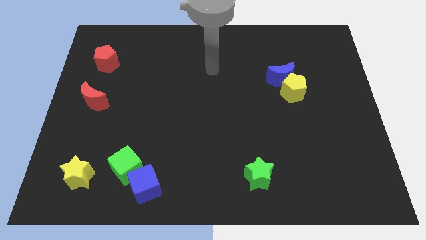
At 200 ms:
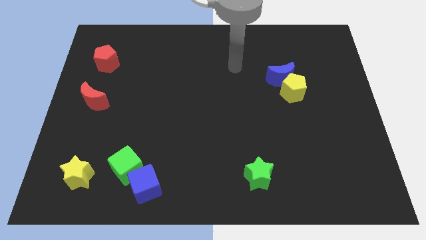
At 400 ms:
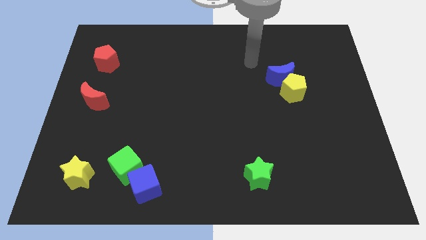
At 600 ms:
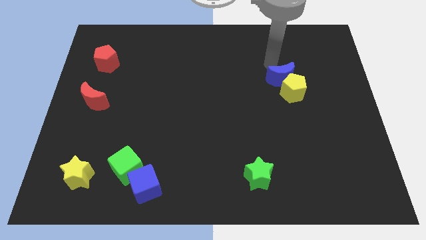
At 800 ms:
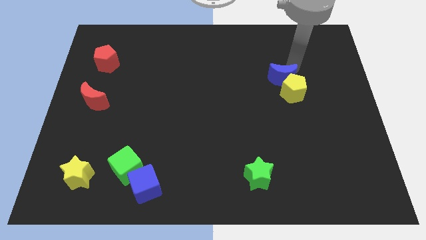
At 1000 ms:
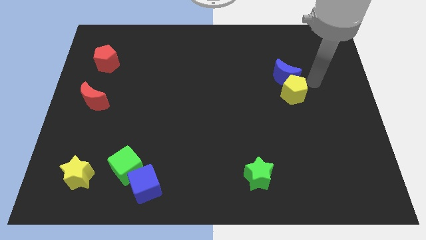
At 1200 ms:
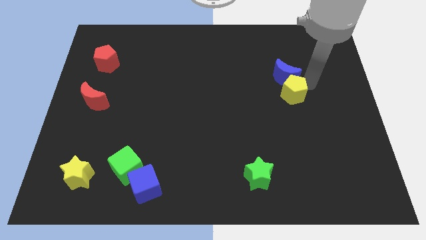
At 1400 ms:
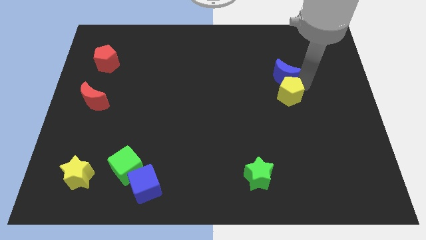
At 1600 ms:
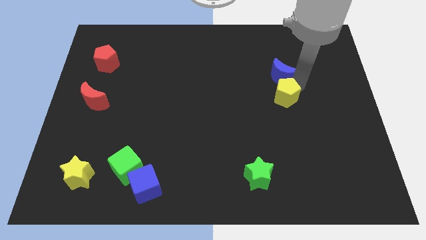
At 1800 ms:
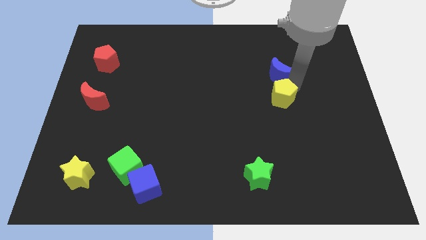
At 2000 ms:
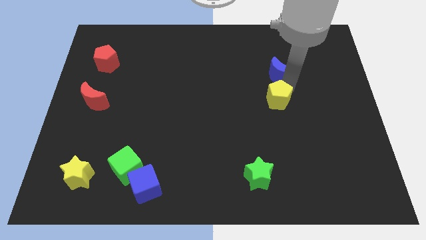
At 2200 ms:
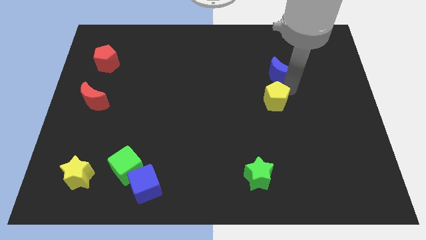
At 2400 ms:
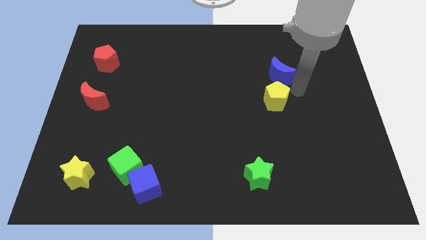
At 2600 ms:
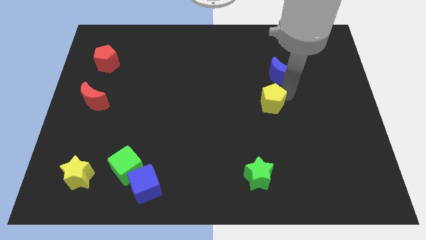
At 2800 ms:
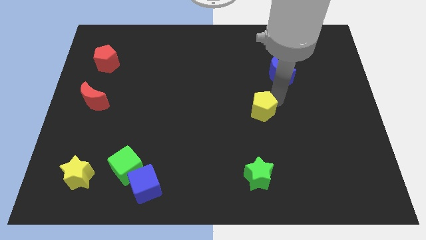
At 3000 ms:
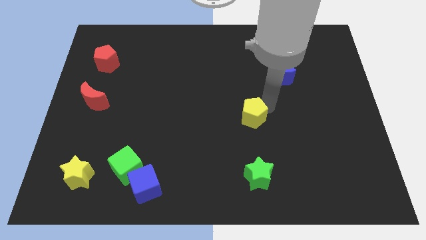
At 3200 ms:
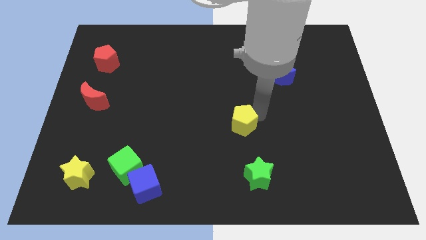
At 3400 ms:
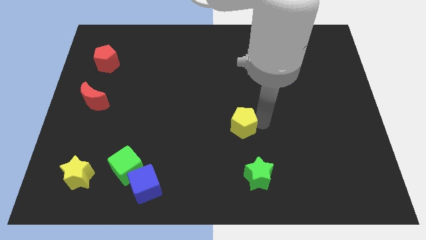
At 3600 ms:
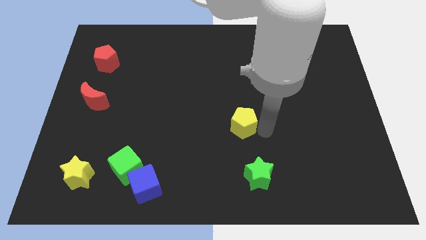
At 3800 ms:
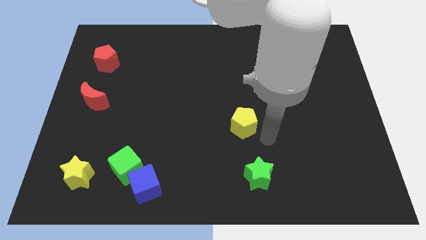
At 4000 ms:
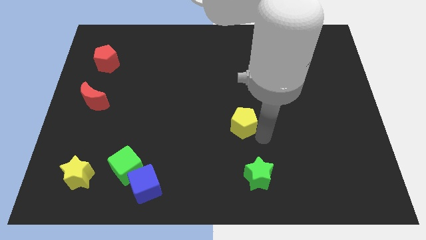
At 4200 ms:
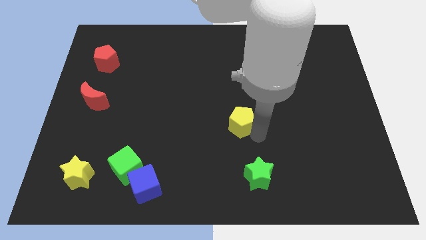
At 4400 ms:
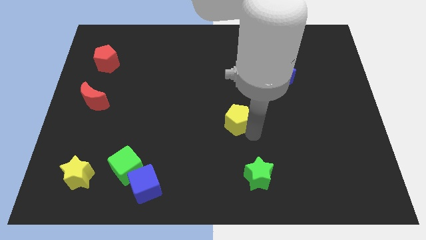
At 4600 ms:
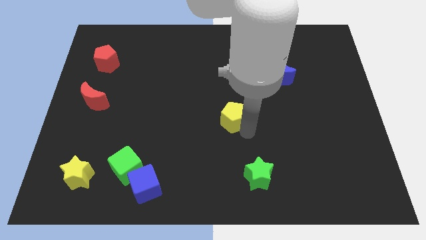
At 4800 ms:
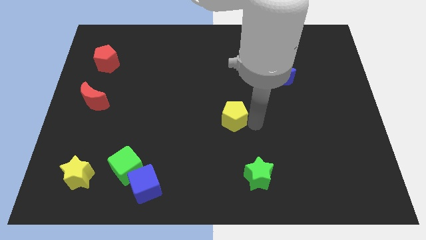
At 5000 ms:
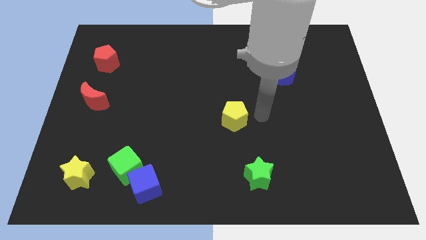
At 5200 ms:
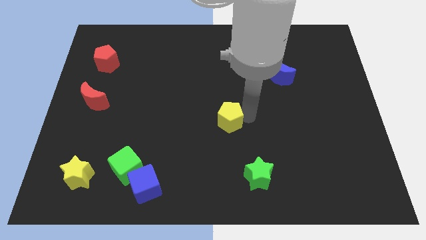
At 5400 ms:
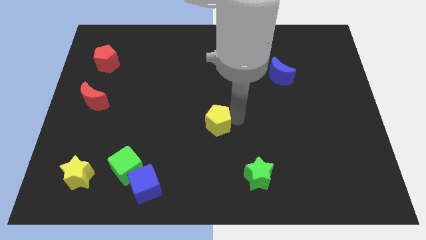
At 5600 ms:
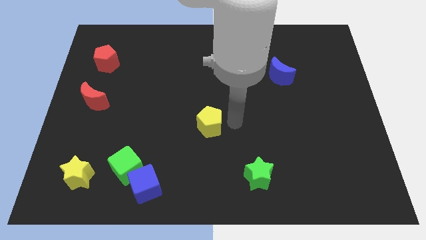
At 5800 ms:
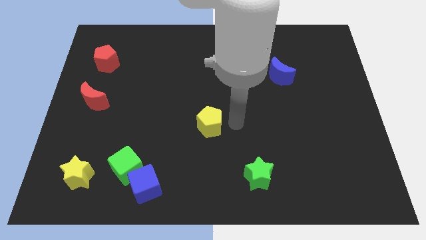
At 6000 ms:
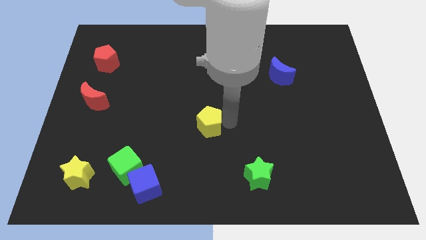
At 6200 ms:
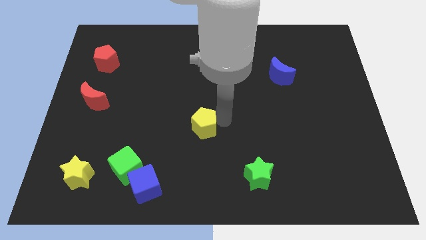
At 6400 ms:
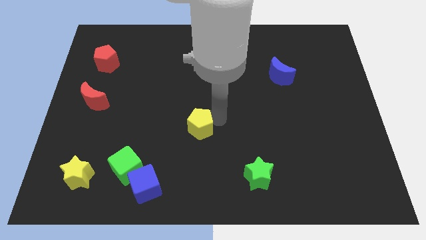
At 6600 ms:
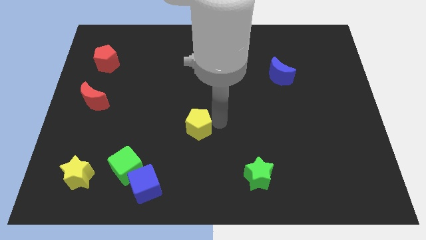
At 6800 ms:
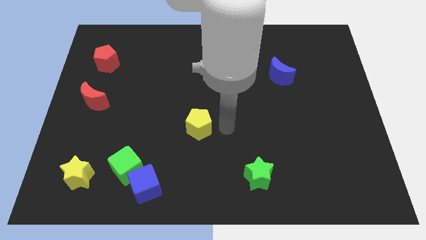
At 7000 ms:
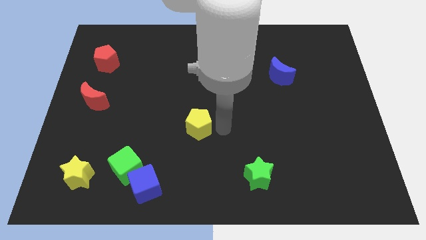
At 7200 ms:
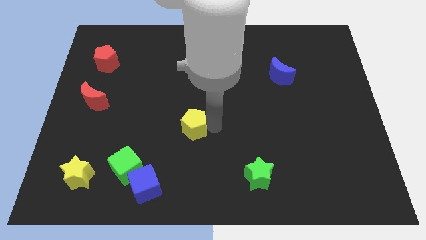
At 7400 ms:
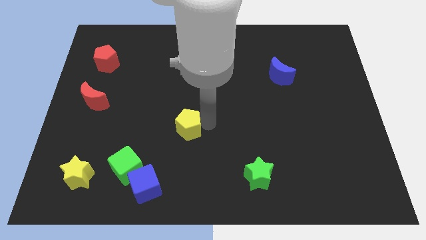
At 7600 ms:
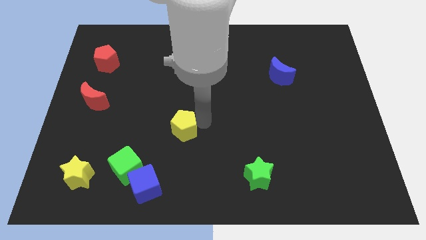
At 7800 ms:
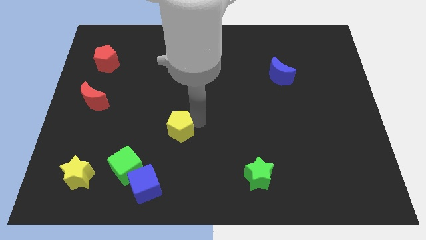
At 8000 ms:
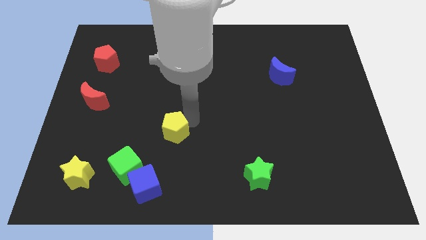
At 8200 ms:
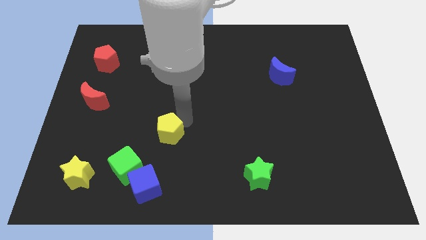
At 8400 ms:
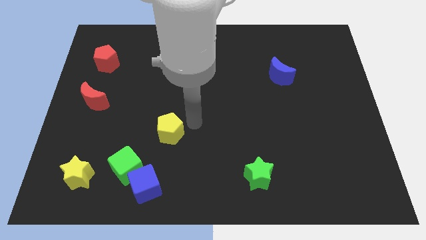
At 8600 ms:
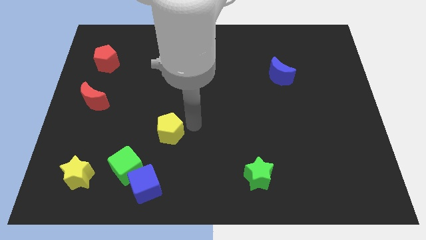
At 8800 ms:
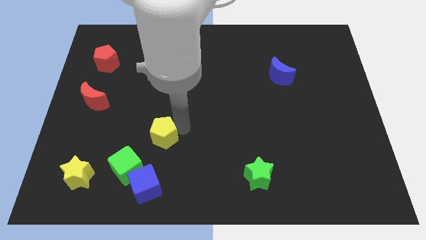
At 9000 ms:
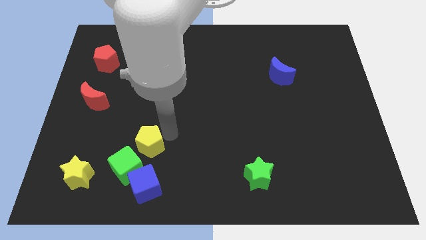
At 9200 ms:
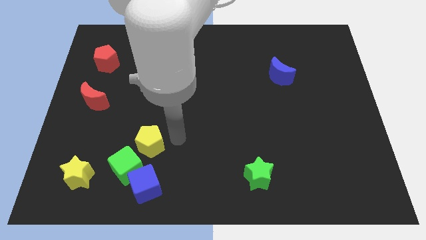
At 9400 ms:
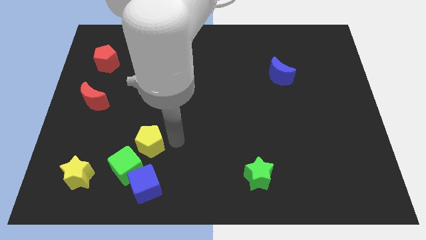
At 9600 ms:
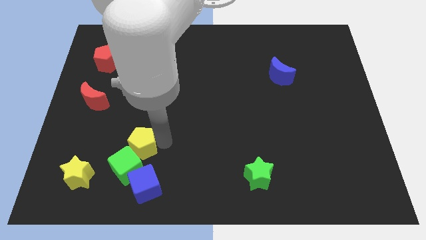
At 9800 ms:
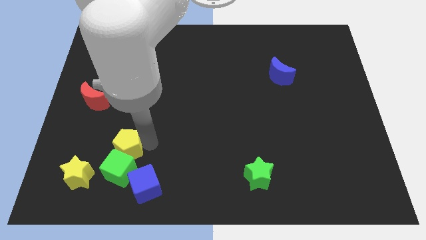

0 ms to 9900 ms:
move the yellow pentagon to the top right side of the yellow star

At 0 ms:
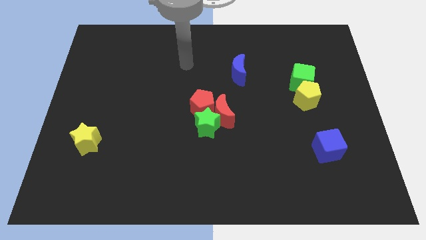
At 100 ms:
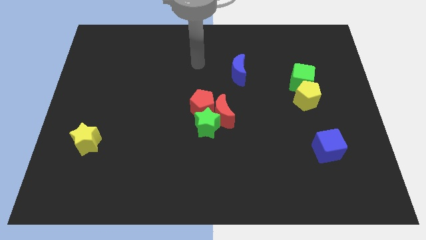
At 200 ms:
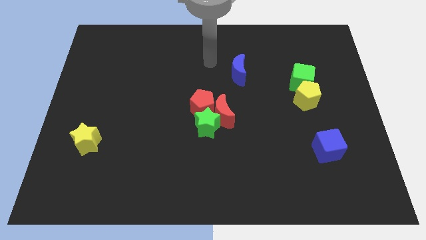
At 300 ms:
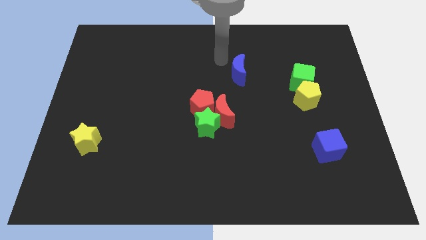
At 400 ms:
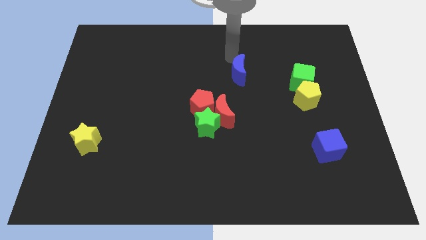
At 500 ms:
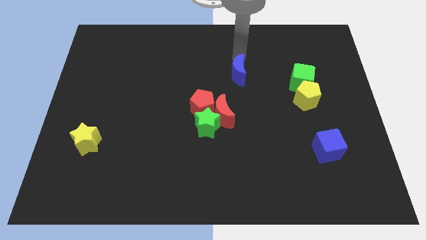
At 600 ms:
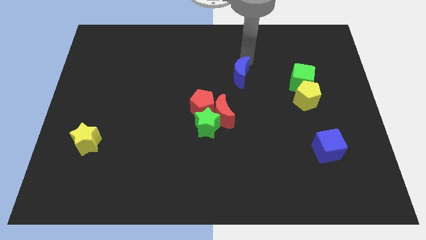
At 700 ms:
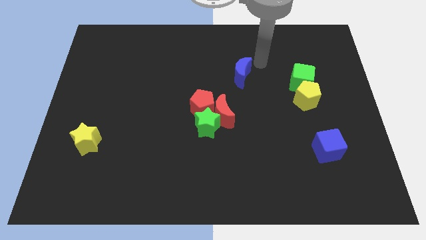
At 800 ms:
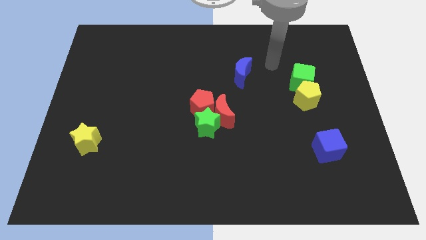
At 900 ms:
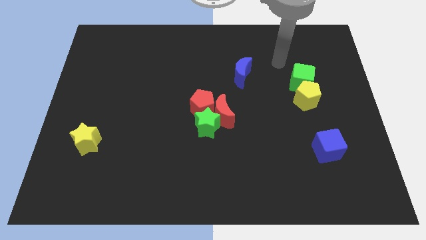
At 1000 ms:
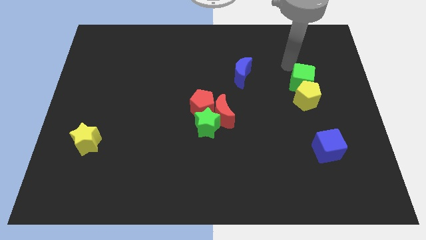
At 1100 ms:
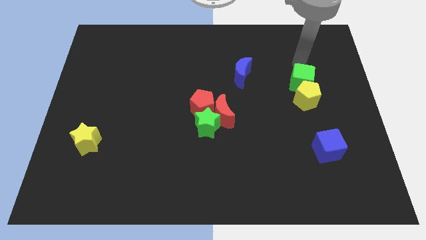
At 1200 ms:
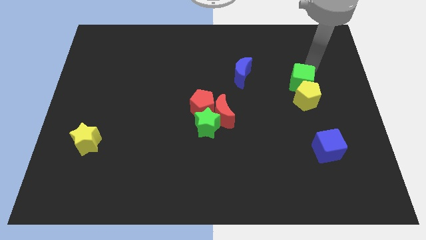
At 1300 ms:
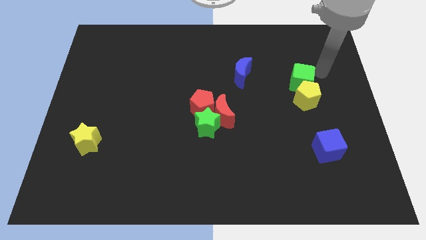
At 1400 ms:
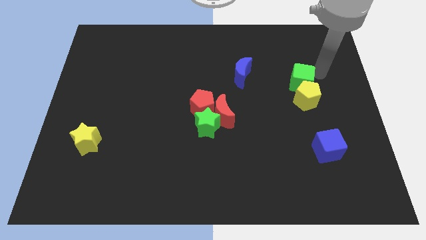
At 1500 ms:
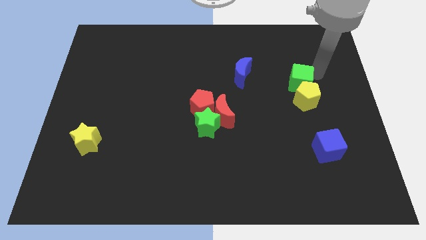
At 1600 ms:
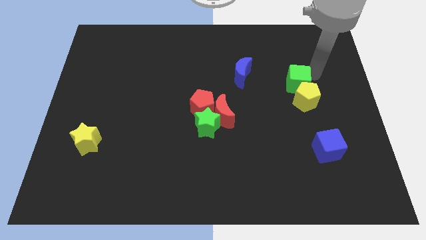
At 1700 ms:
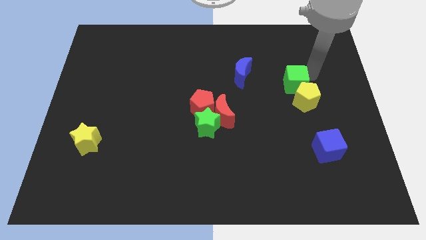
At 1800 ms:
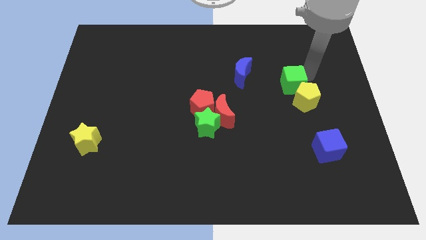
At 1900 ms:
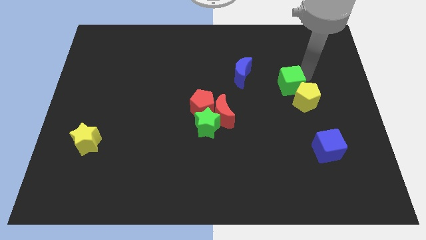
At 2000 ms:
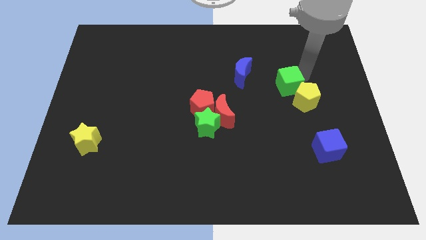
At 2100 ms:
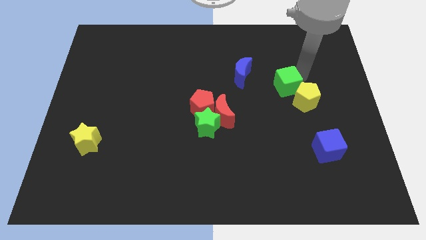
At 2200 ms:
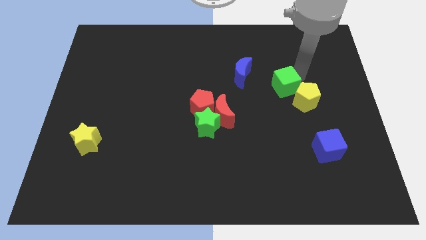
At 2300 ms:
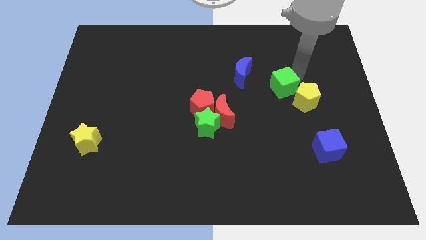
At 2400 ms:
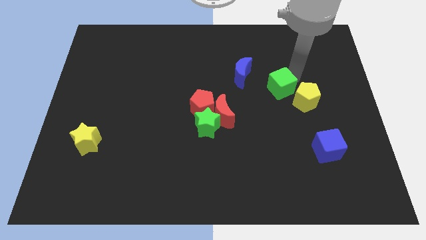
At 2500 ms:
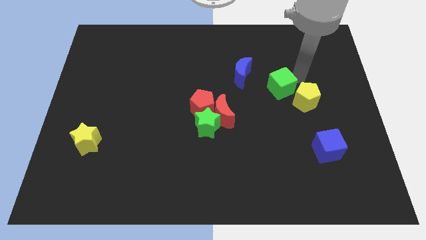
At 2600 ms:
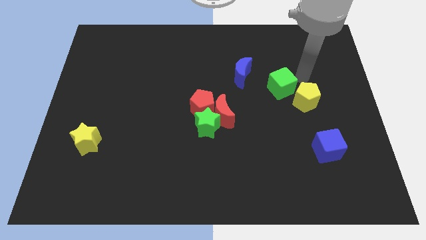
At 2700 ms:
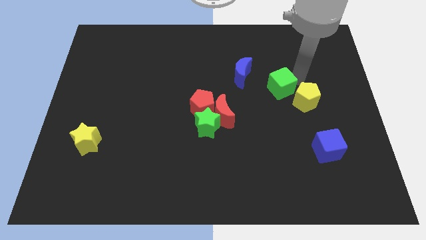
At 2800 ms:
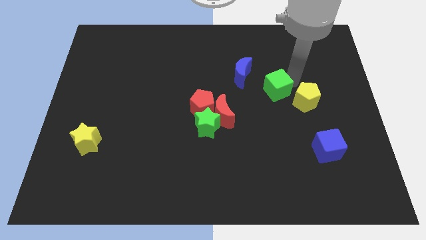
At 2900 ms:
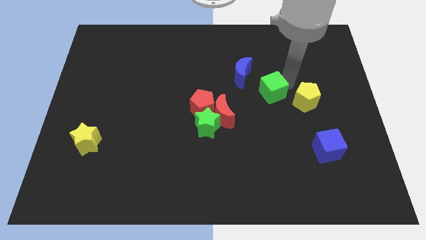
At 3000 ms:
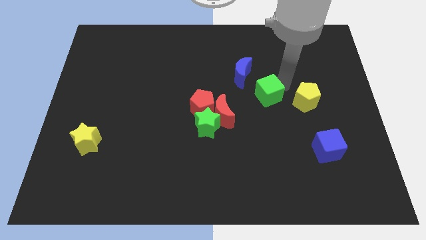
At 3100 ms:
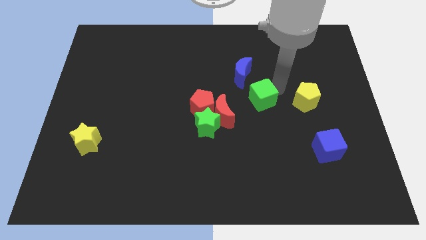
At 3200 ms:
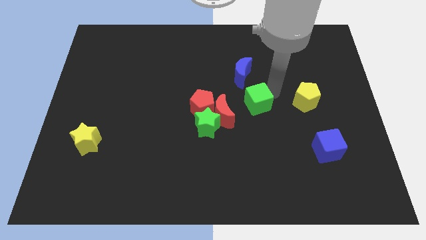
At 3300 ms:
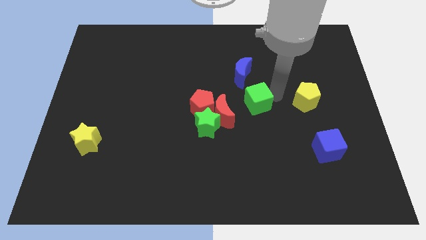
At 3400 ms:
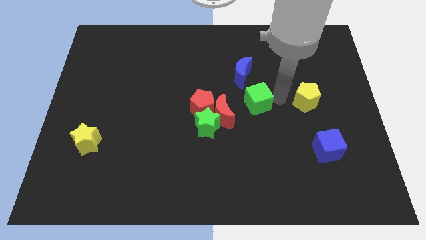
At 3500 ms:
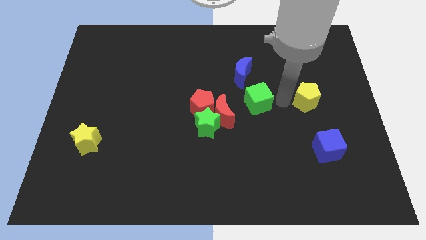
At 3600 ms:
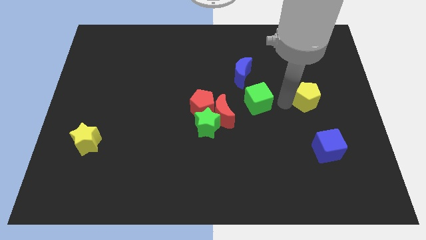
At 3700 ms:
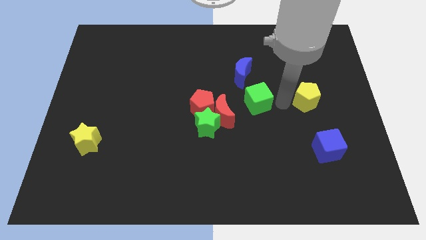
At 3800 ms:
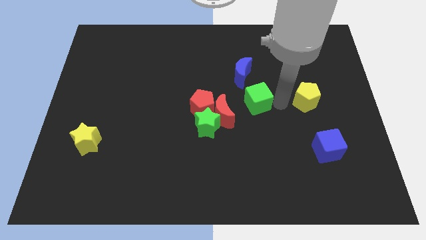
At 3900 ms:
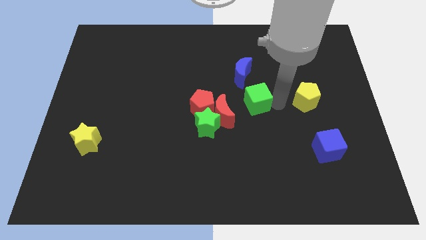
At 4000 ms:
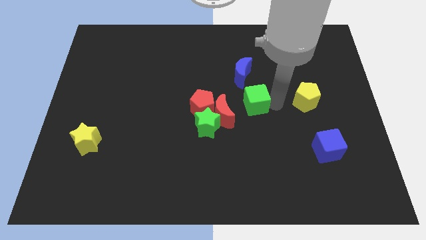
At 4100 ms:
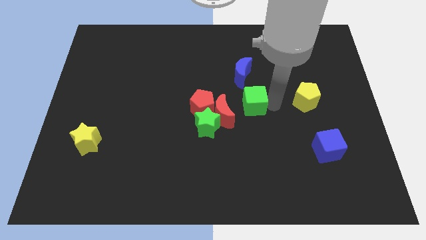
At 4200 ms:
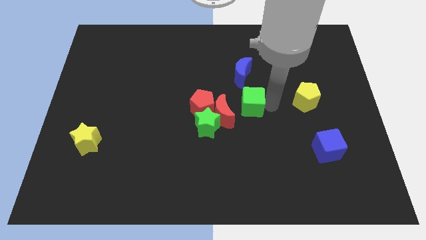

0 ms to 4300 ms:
move the green cube diagonally up and to the right of the green star
